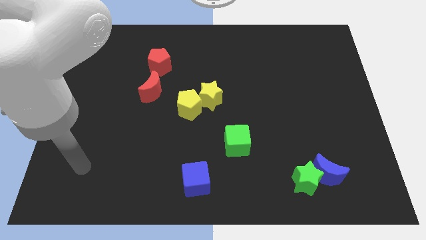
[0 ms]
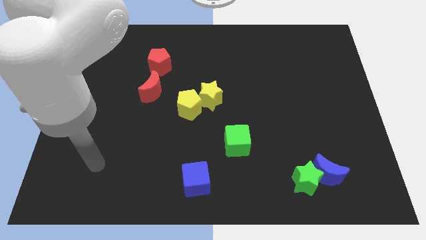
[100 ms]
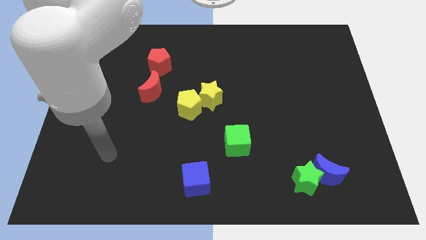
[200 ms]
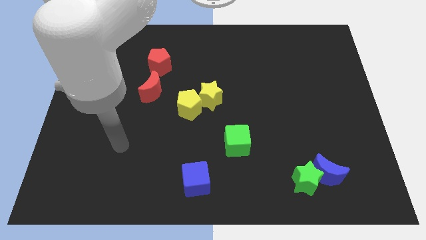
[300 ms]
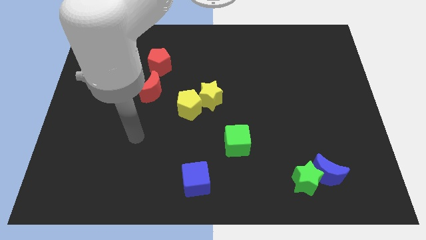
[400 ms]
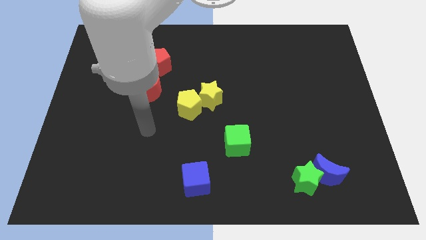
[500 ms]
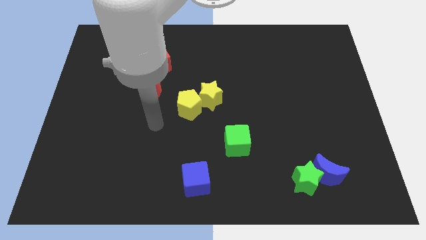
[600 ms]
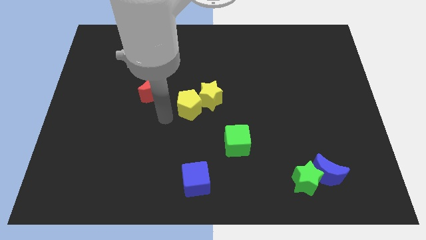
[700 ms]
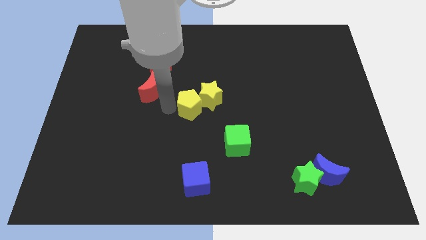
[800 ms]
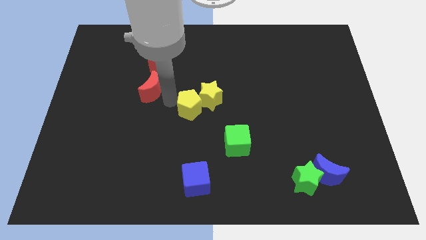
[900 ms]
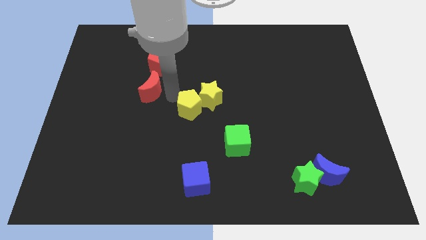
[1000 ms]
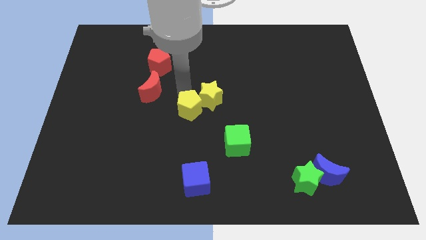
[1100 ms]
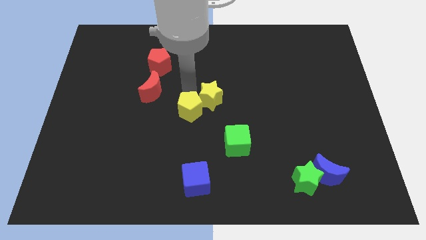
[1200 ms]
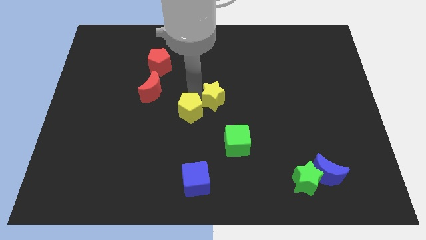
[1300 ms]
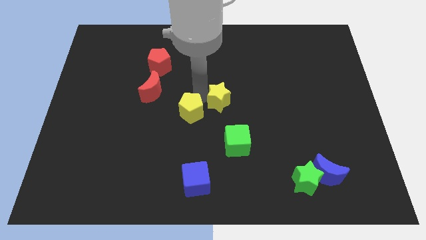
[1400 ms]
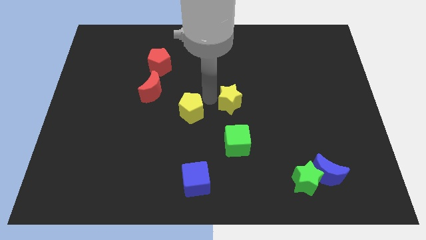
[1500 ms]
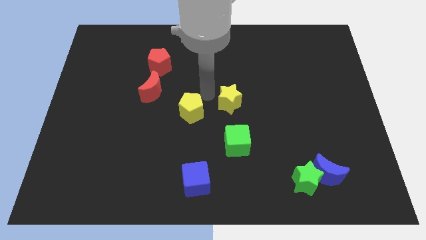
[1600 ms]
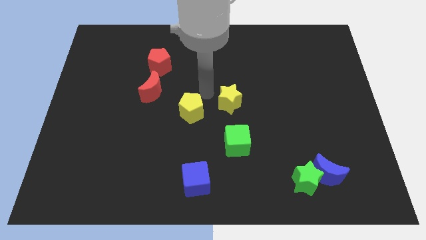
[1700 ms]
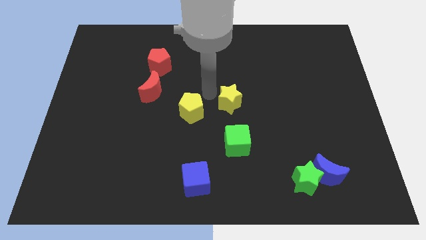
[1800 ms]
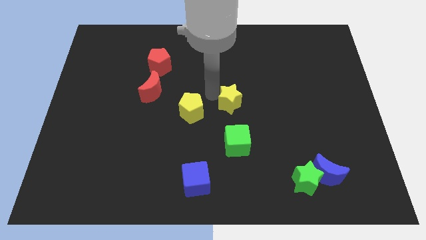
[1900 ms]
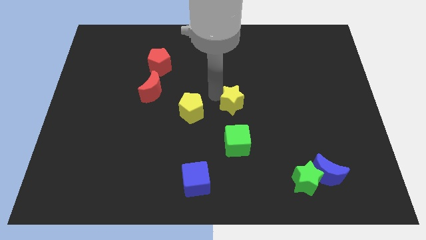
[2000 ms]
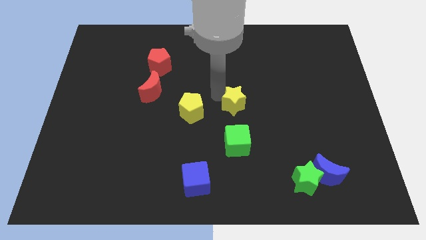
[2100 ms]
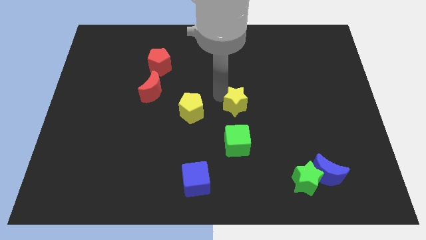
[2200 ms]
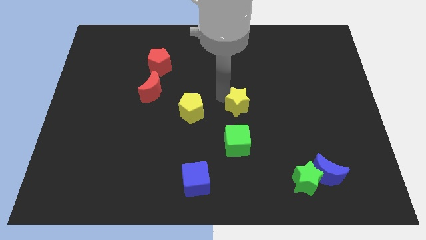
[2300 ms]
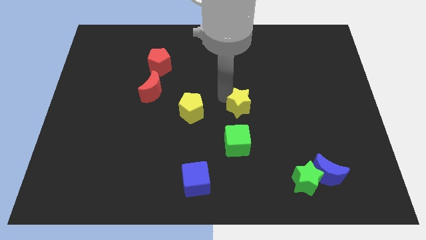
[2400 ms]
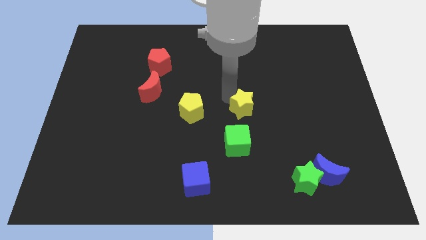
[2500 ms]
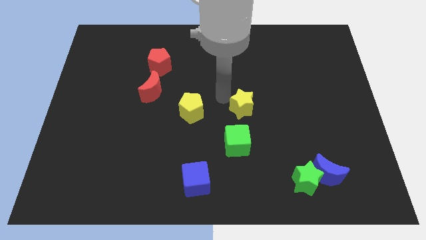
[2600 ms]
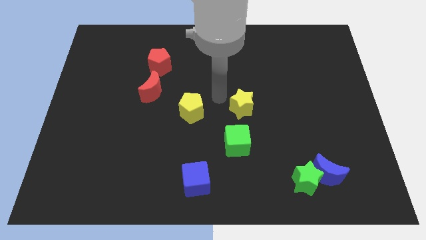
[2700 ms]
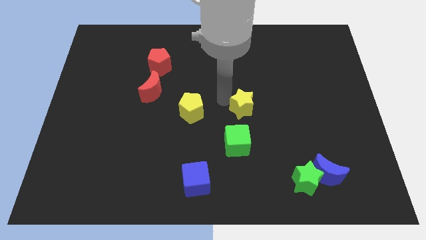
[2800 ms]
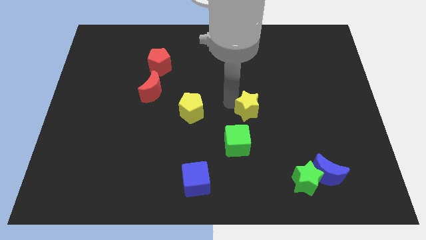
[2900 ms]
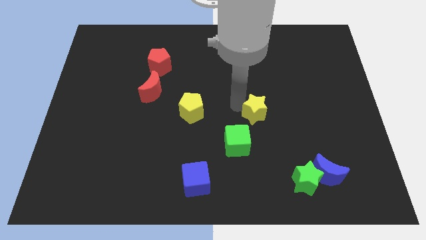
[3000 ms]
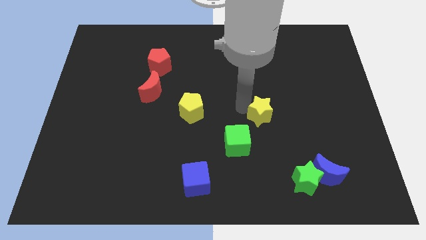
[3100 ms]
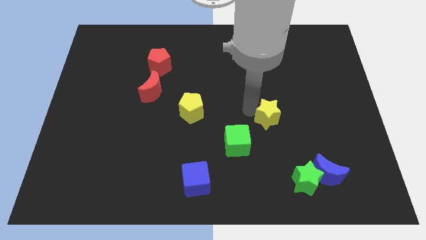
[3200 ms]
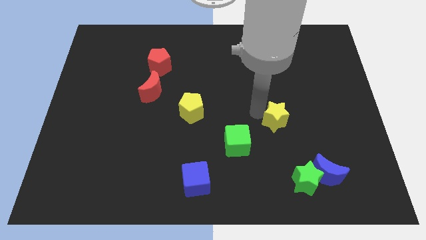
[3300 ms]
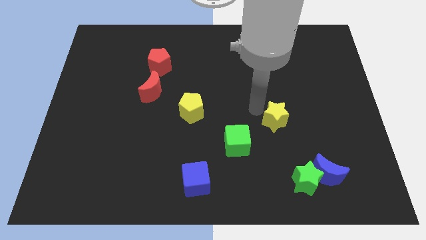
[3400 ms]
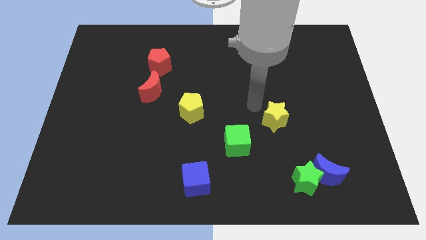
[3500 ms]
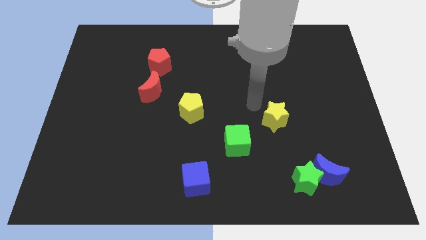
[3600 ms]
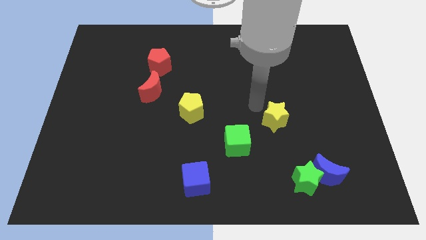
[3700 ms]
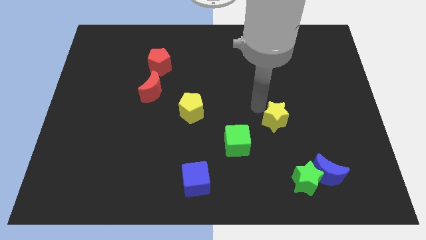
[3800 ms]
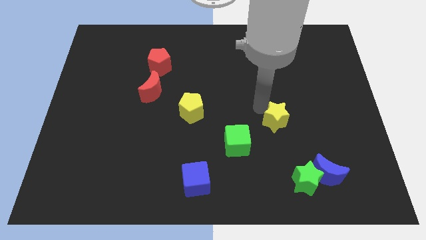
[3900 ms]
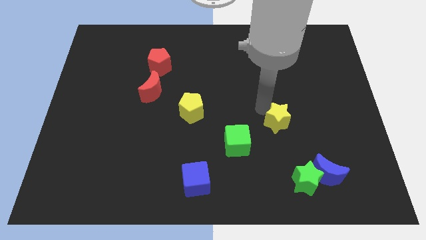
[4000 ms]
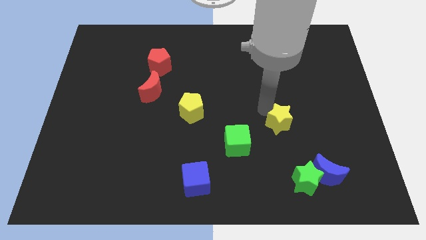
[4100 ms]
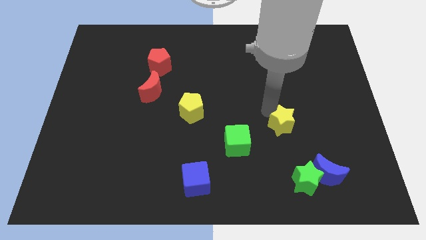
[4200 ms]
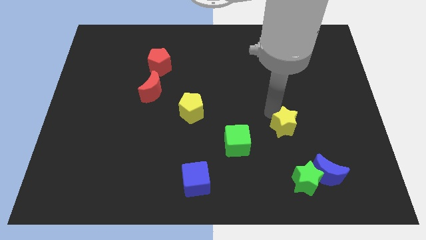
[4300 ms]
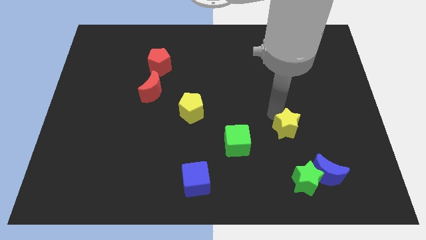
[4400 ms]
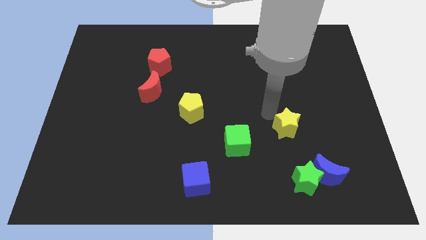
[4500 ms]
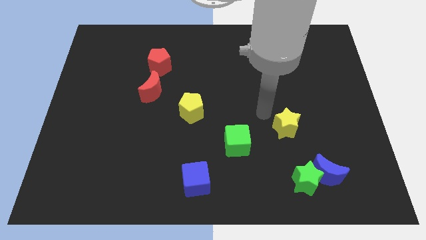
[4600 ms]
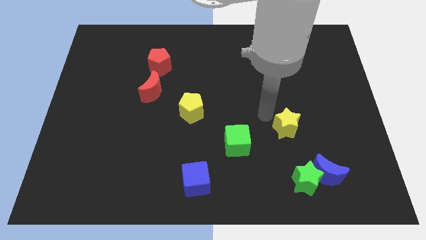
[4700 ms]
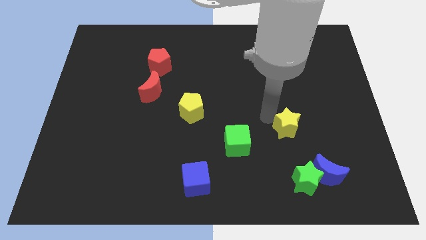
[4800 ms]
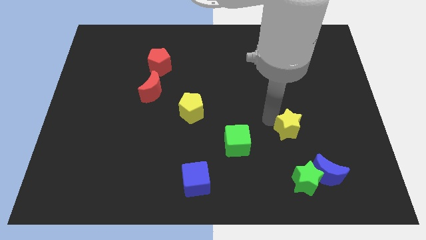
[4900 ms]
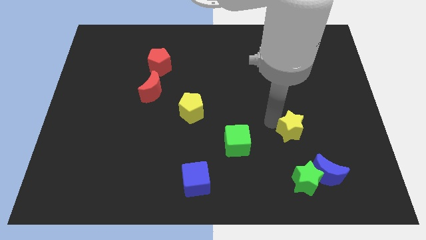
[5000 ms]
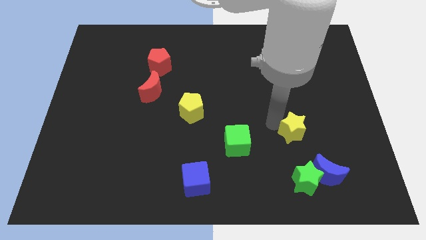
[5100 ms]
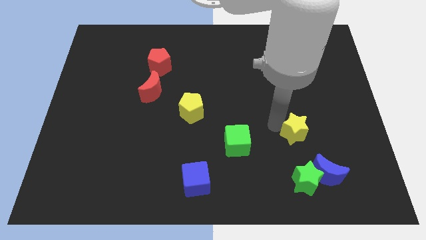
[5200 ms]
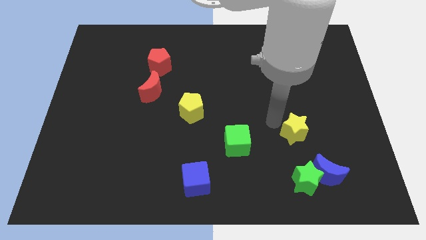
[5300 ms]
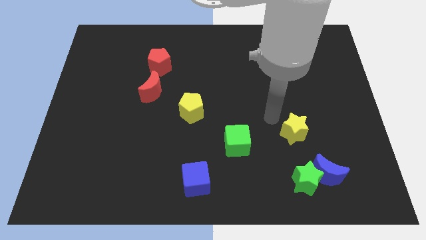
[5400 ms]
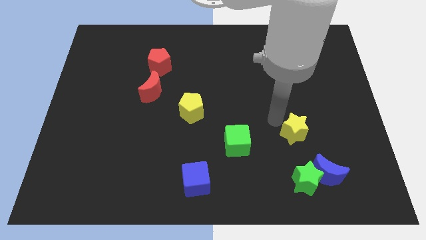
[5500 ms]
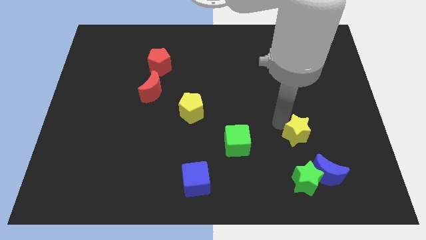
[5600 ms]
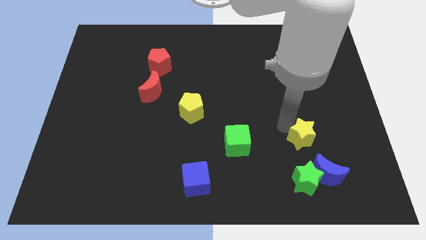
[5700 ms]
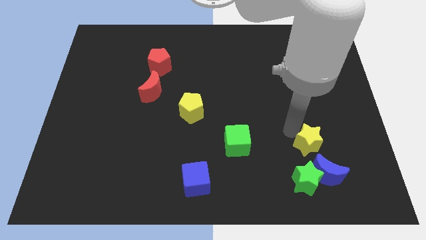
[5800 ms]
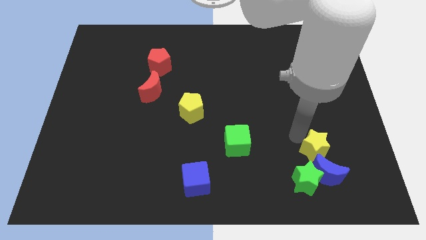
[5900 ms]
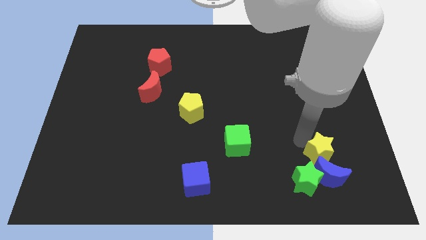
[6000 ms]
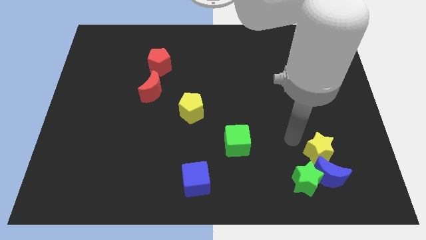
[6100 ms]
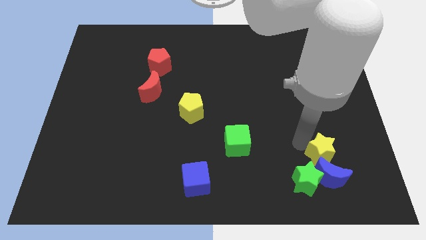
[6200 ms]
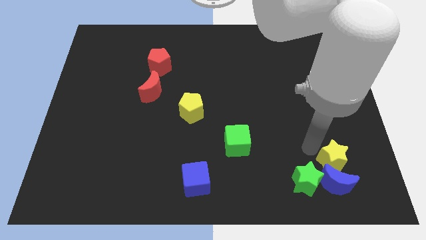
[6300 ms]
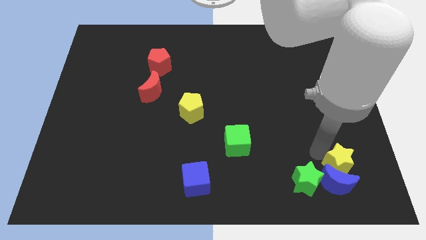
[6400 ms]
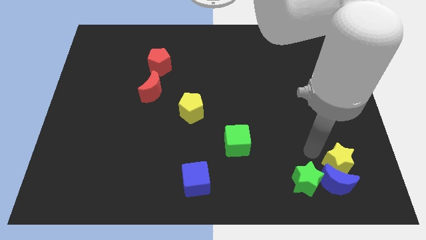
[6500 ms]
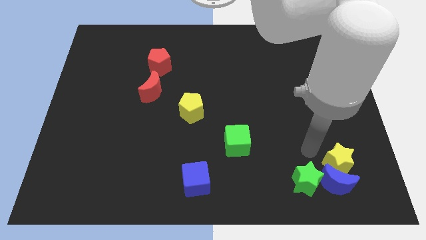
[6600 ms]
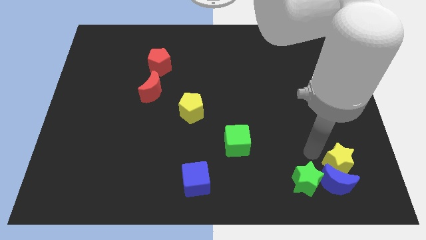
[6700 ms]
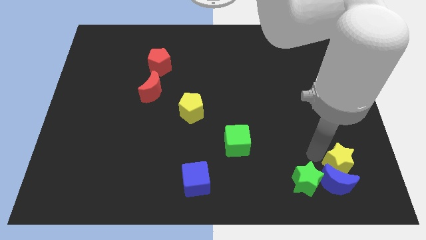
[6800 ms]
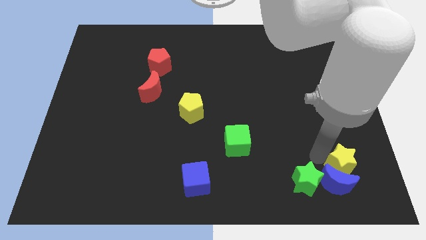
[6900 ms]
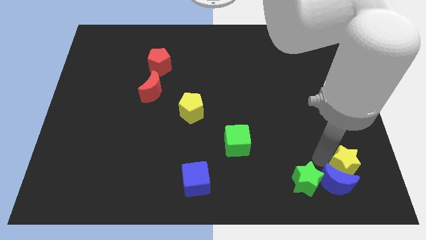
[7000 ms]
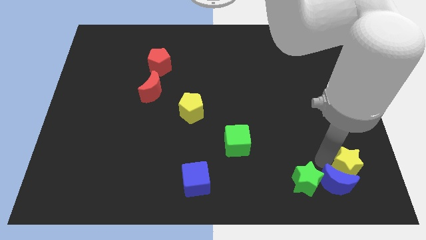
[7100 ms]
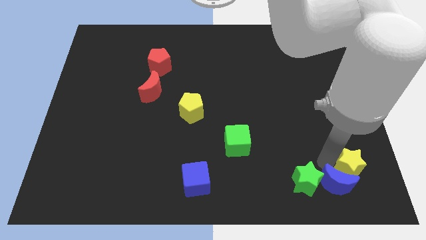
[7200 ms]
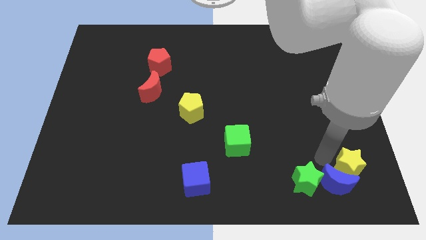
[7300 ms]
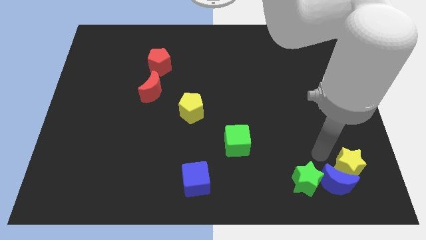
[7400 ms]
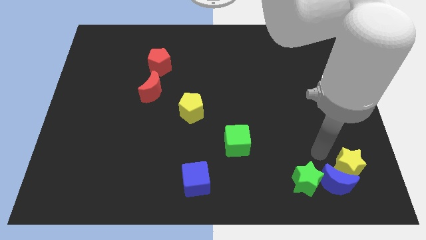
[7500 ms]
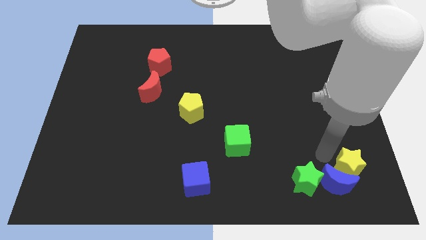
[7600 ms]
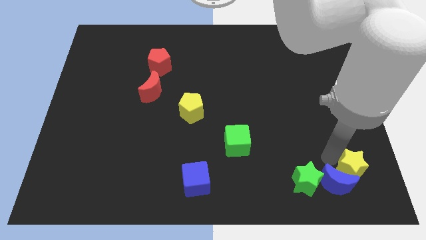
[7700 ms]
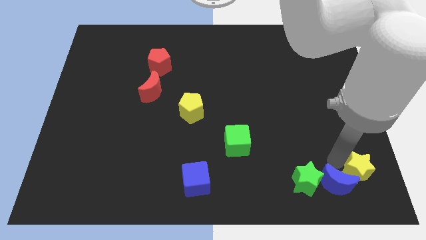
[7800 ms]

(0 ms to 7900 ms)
move the yellow star to the lower right corner
